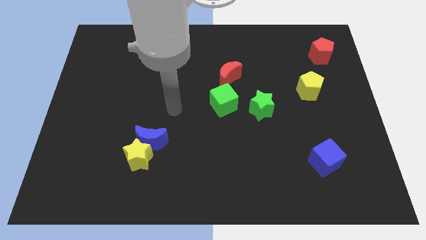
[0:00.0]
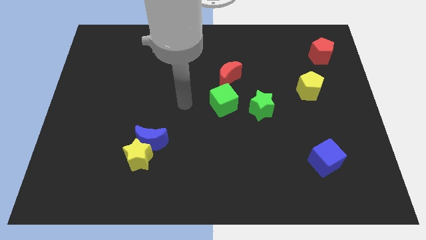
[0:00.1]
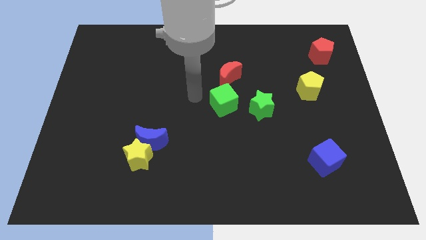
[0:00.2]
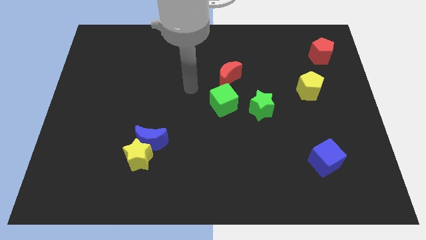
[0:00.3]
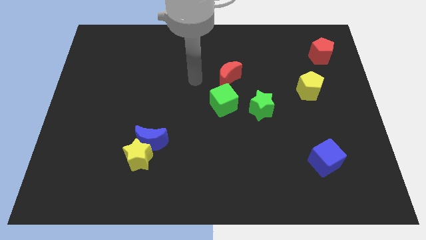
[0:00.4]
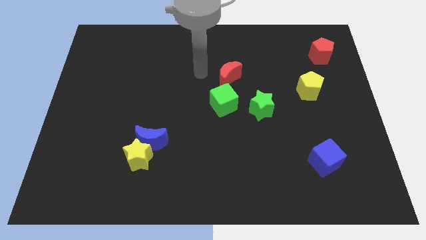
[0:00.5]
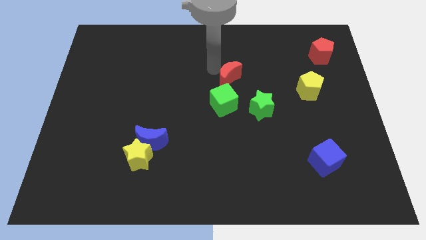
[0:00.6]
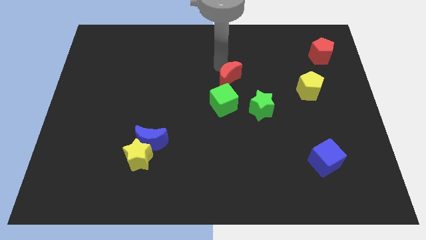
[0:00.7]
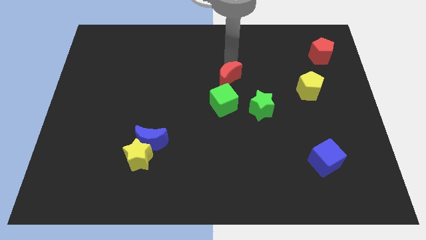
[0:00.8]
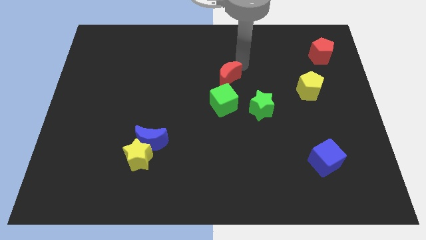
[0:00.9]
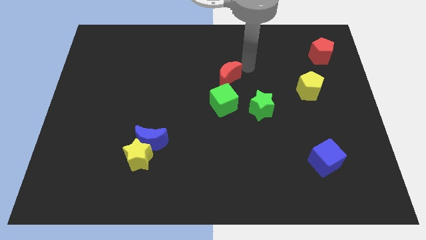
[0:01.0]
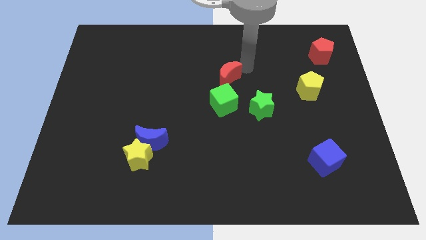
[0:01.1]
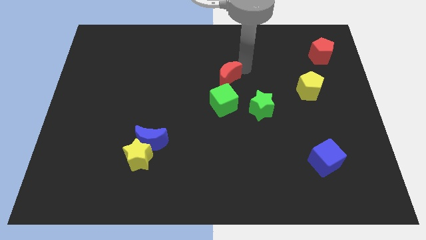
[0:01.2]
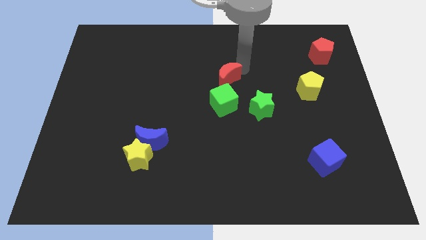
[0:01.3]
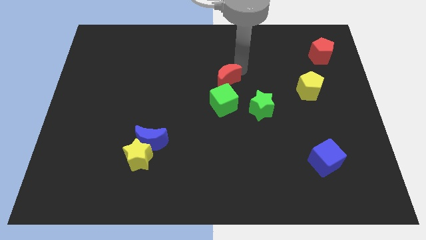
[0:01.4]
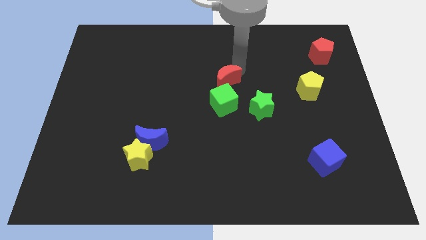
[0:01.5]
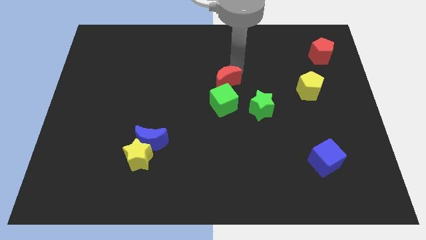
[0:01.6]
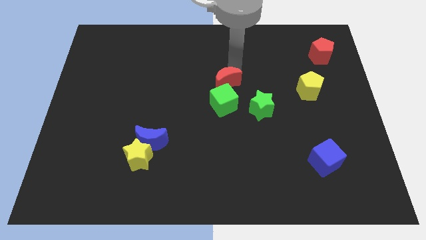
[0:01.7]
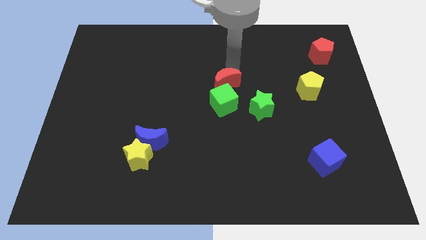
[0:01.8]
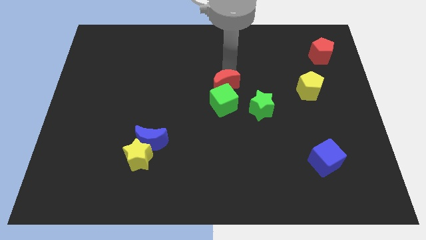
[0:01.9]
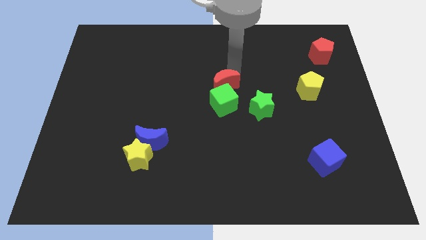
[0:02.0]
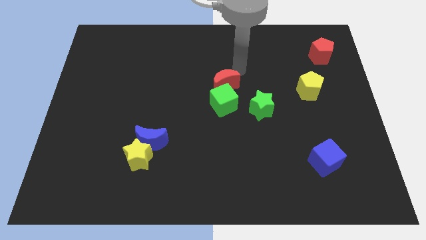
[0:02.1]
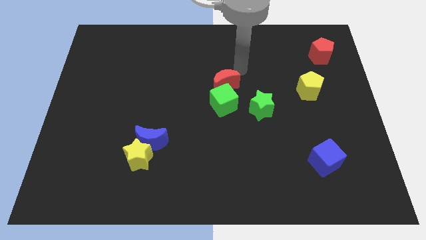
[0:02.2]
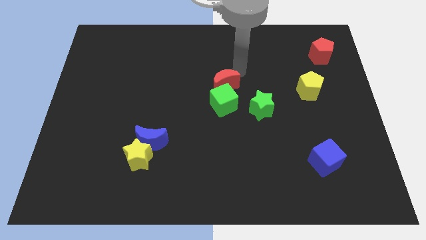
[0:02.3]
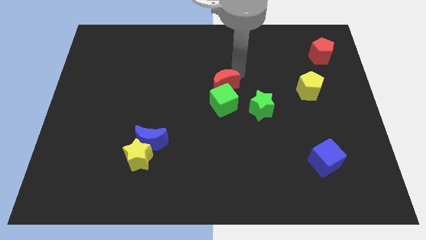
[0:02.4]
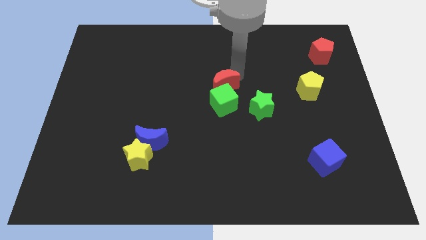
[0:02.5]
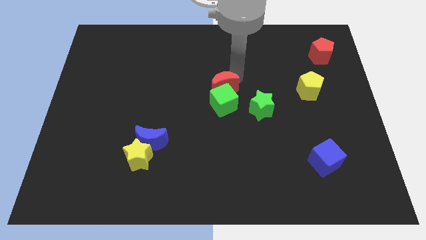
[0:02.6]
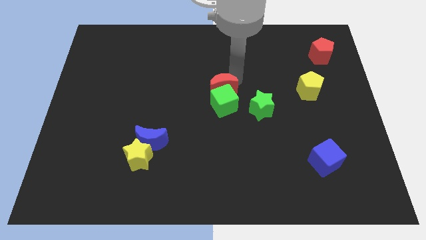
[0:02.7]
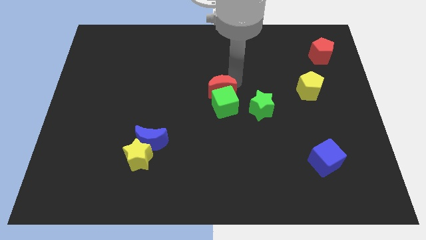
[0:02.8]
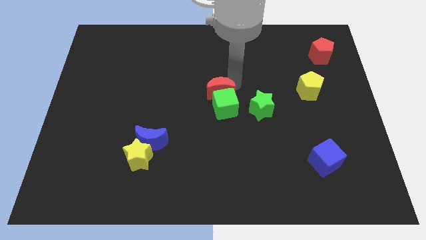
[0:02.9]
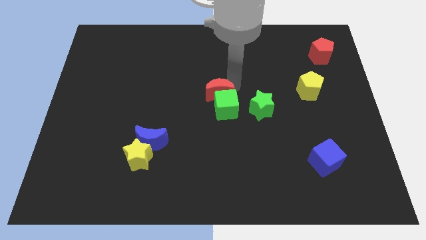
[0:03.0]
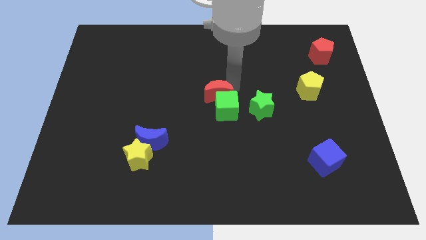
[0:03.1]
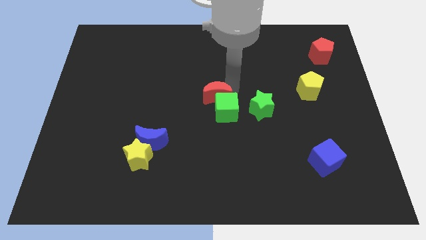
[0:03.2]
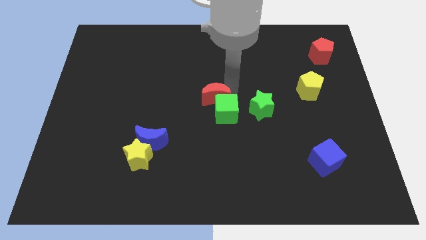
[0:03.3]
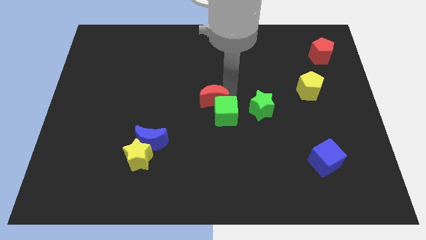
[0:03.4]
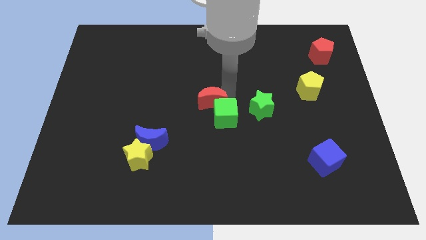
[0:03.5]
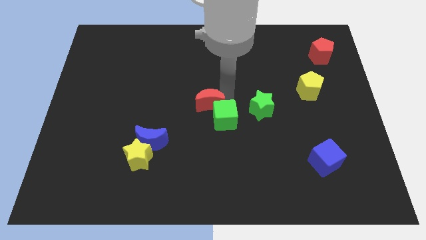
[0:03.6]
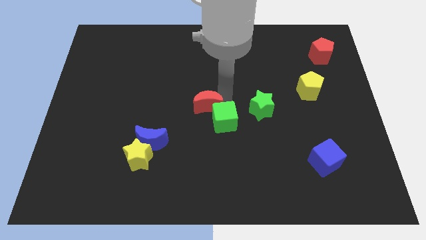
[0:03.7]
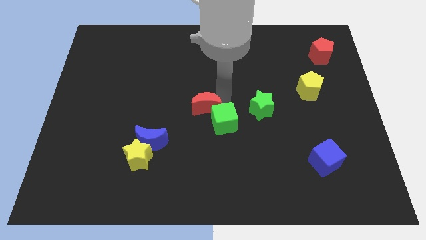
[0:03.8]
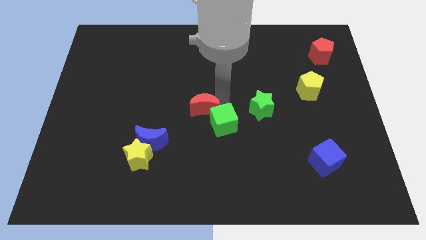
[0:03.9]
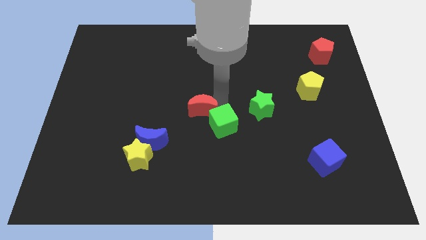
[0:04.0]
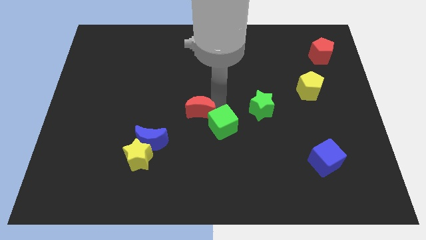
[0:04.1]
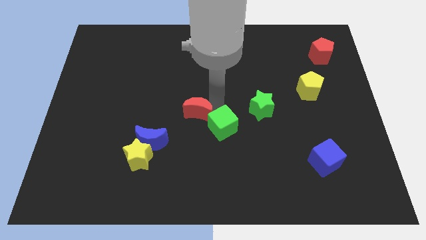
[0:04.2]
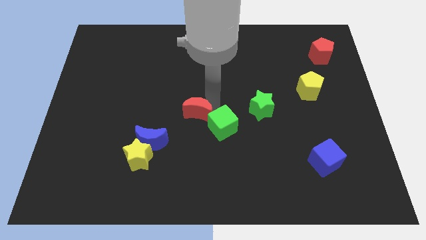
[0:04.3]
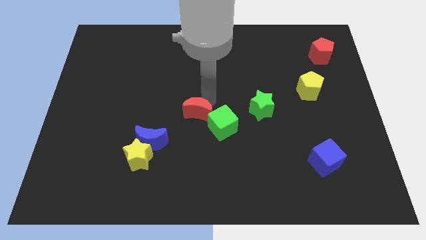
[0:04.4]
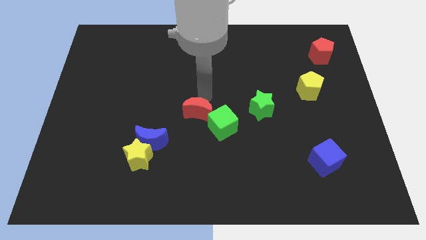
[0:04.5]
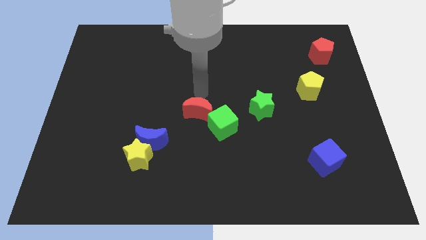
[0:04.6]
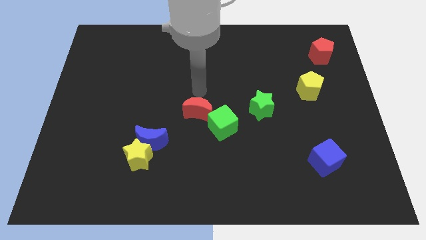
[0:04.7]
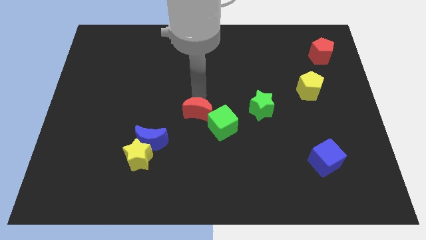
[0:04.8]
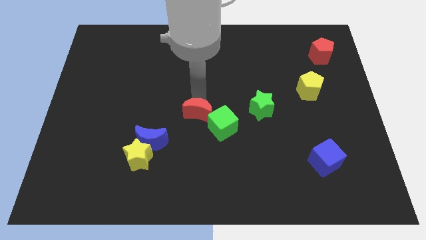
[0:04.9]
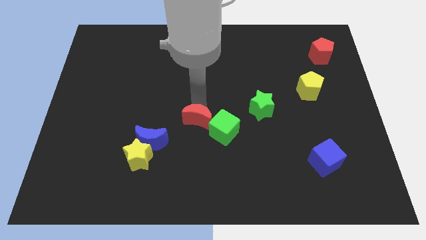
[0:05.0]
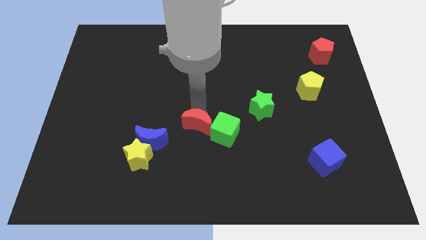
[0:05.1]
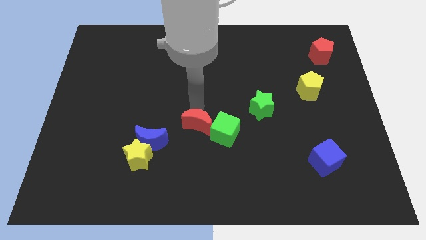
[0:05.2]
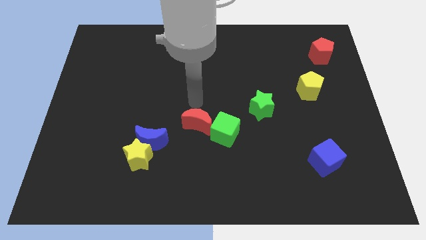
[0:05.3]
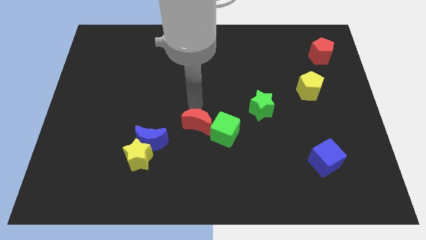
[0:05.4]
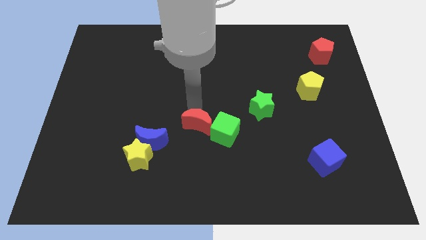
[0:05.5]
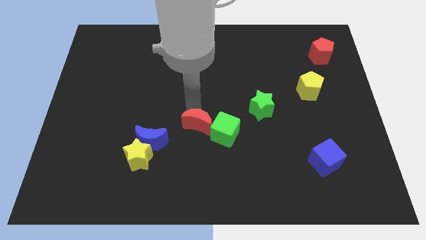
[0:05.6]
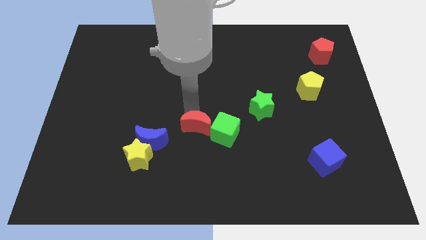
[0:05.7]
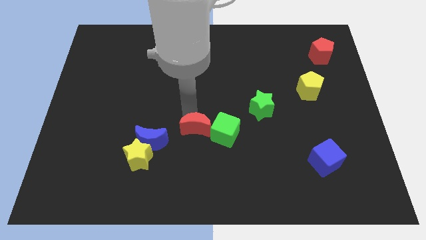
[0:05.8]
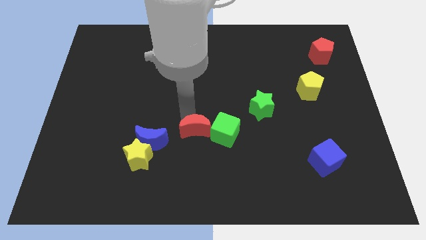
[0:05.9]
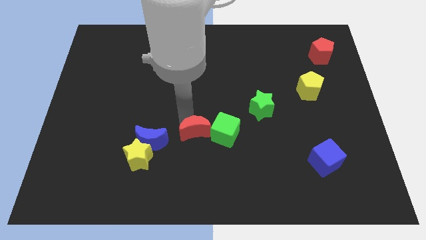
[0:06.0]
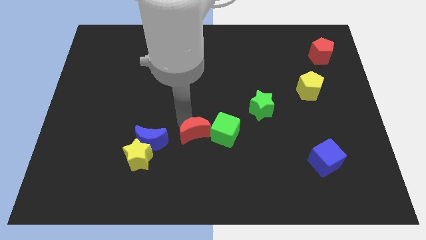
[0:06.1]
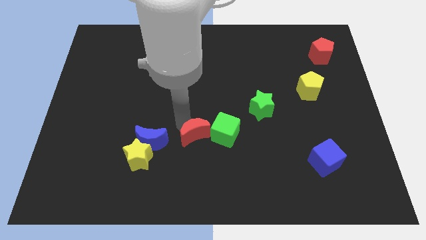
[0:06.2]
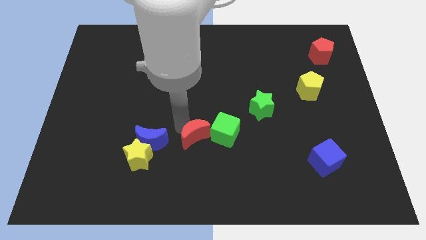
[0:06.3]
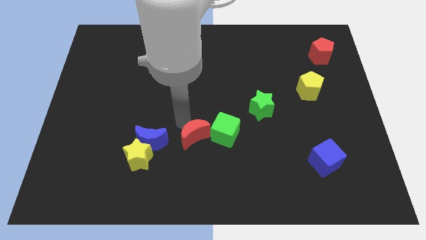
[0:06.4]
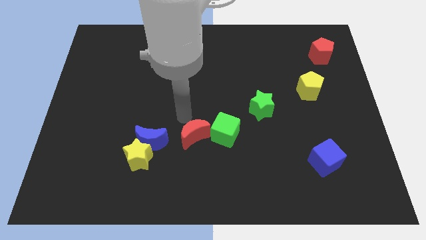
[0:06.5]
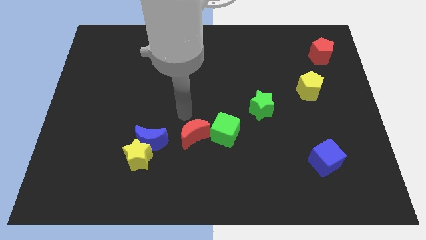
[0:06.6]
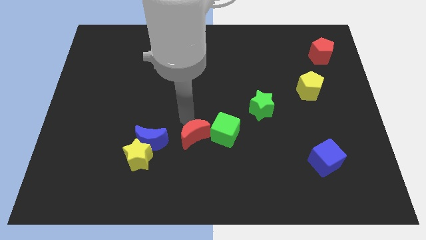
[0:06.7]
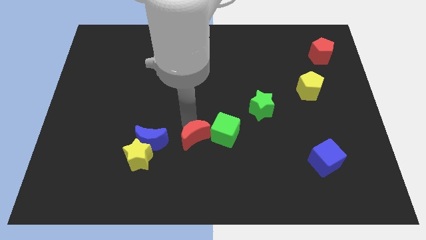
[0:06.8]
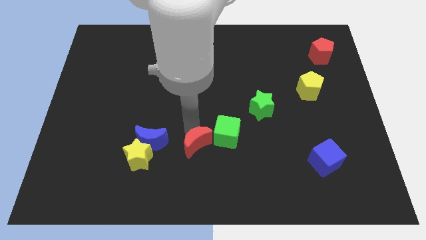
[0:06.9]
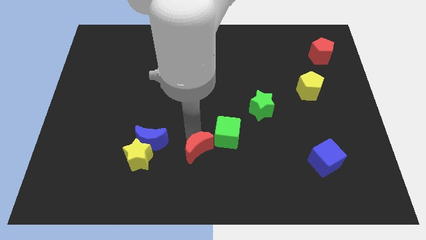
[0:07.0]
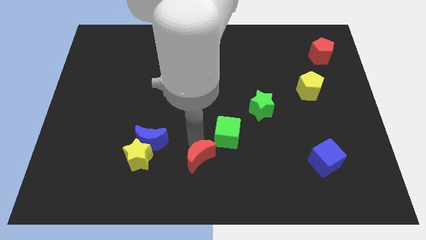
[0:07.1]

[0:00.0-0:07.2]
put the red moon to the bottom side
